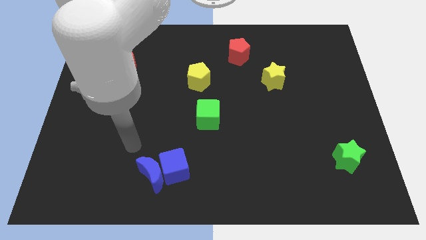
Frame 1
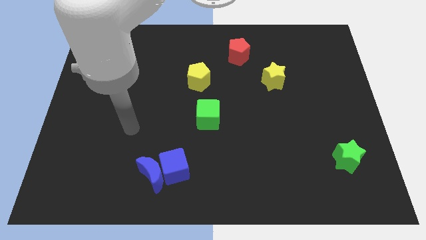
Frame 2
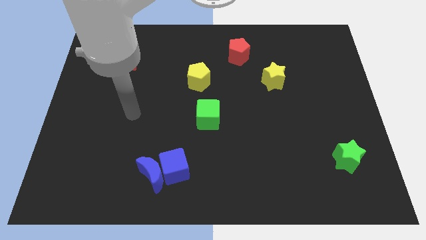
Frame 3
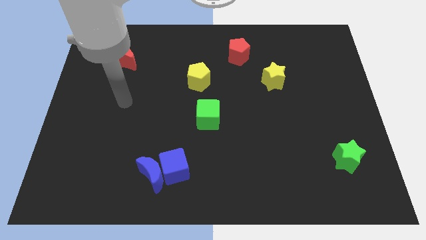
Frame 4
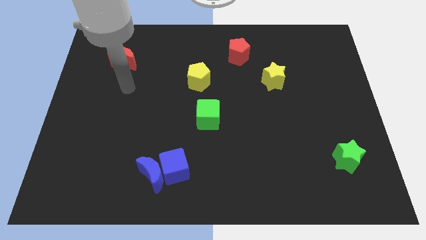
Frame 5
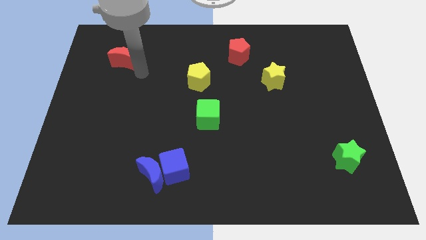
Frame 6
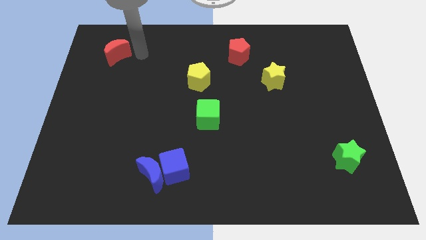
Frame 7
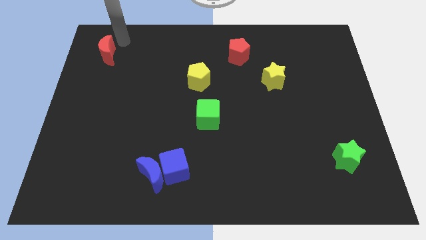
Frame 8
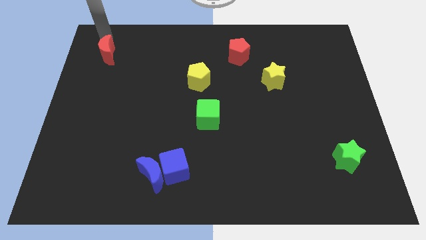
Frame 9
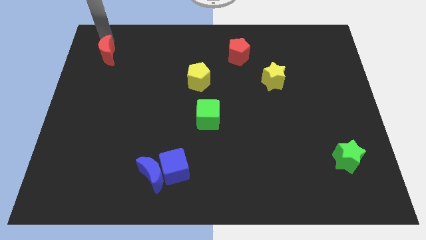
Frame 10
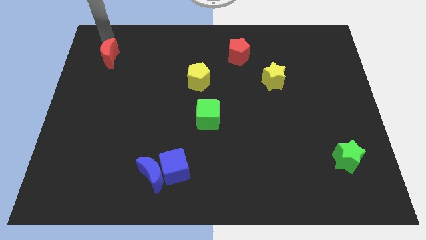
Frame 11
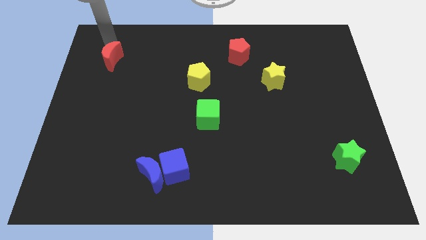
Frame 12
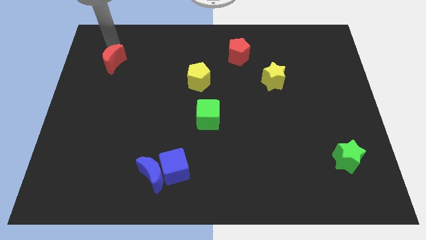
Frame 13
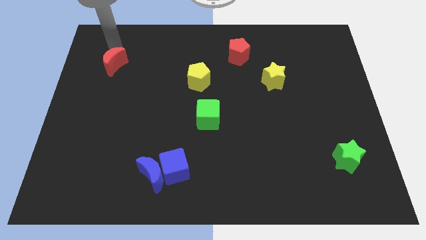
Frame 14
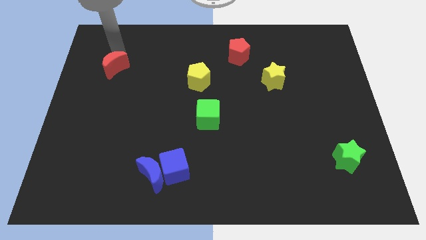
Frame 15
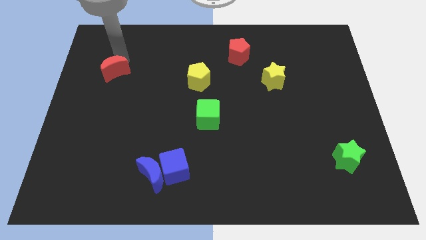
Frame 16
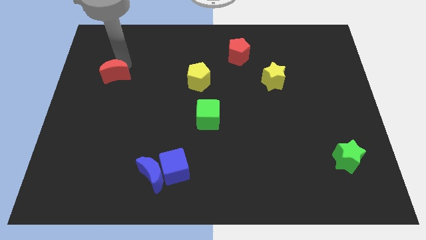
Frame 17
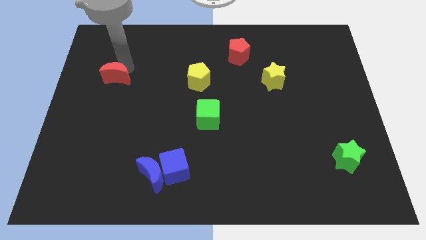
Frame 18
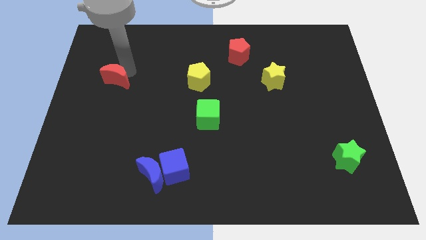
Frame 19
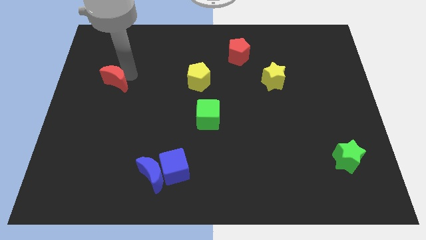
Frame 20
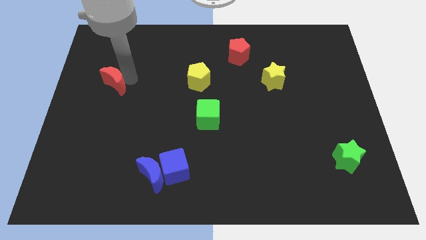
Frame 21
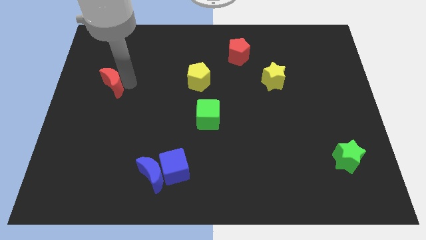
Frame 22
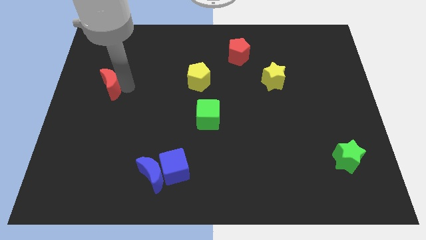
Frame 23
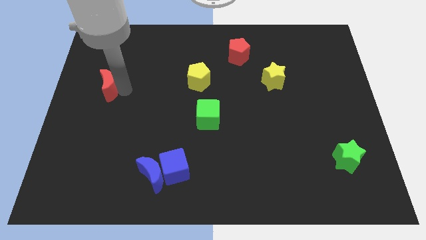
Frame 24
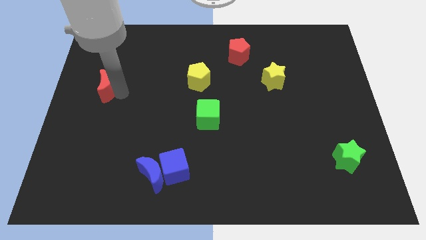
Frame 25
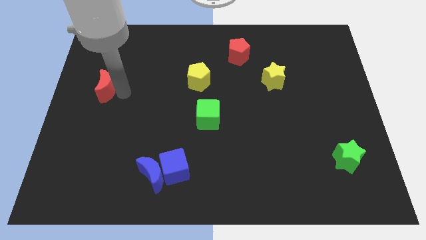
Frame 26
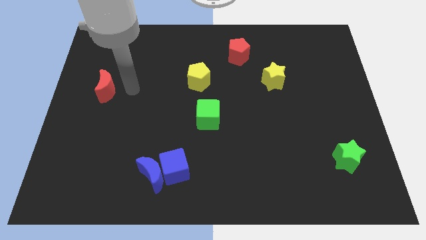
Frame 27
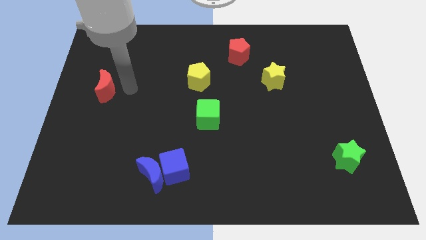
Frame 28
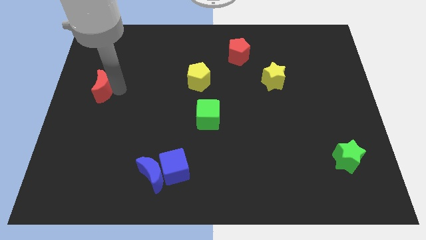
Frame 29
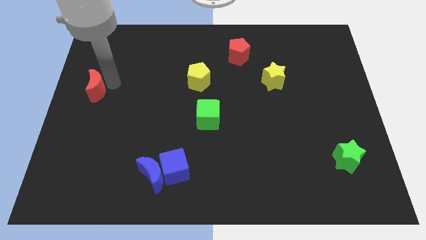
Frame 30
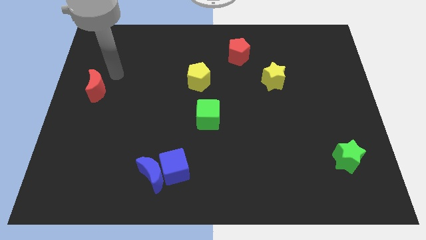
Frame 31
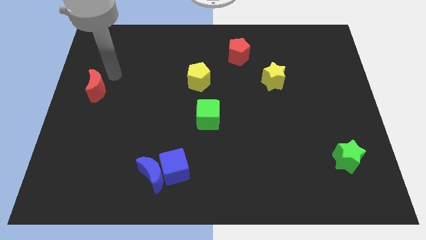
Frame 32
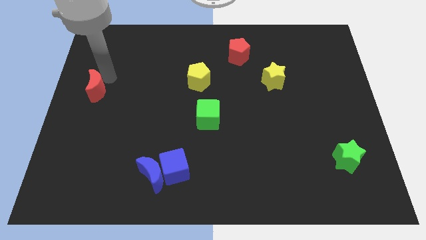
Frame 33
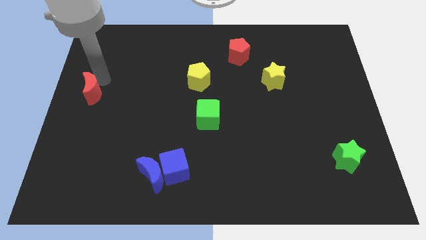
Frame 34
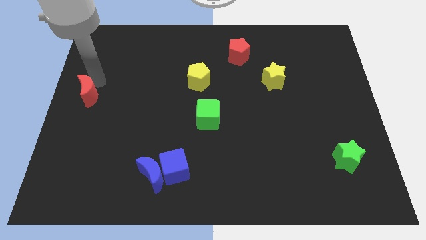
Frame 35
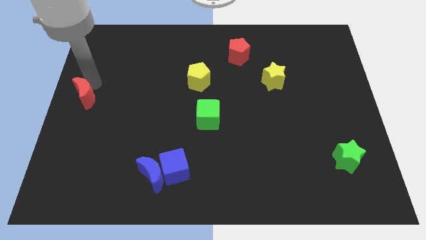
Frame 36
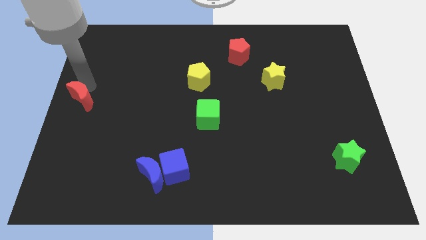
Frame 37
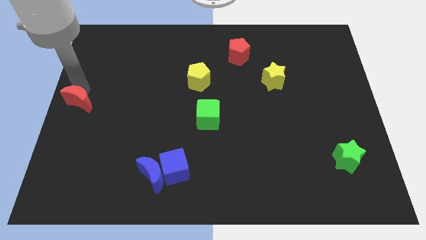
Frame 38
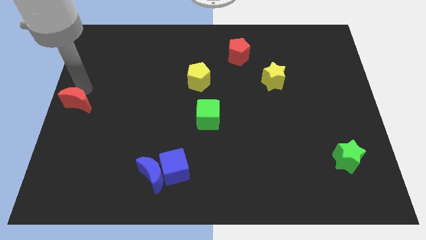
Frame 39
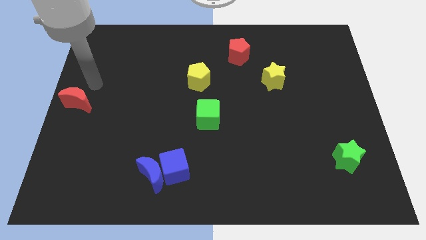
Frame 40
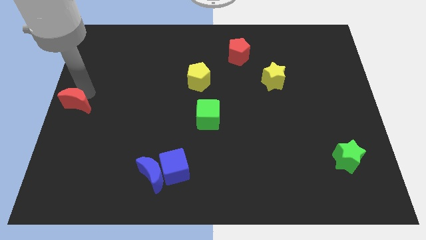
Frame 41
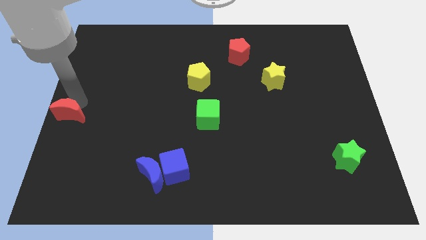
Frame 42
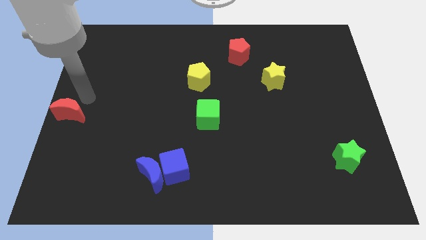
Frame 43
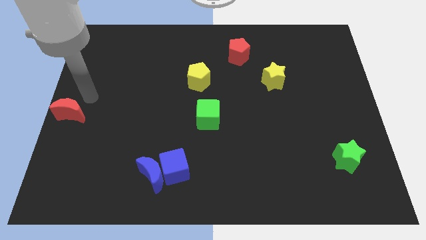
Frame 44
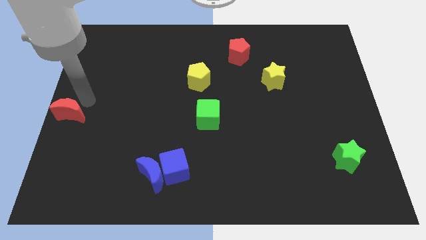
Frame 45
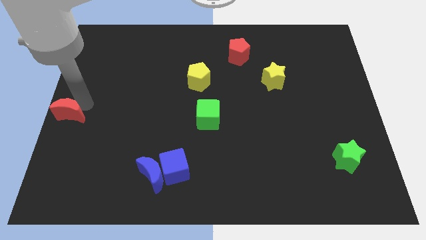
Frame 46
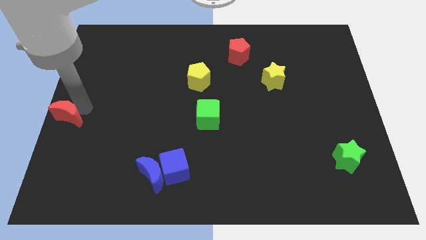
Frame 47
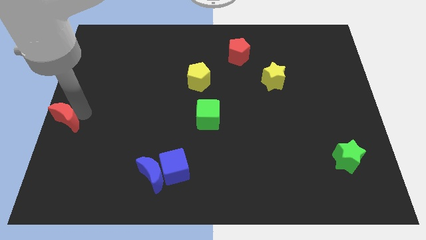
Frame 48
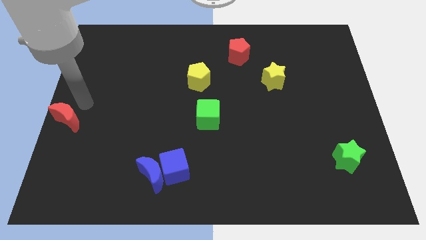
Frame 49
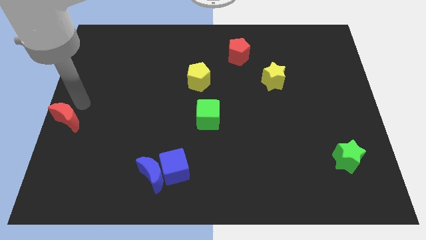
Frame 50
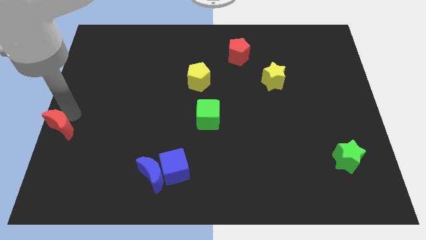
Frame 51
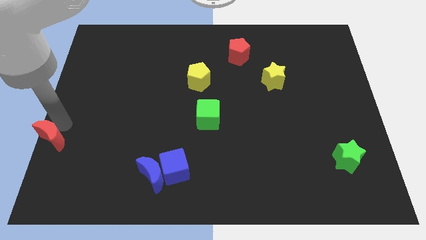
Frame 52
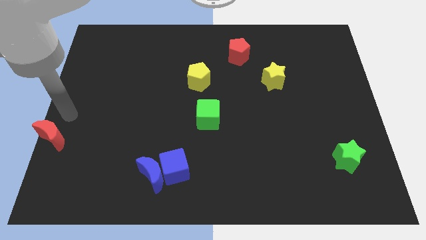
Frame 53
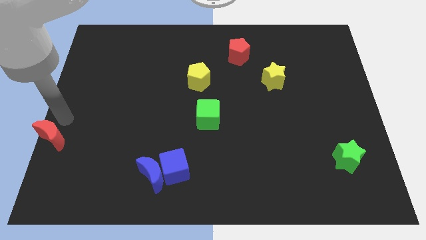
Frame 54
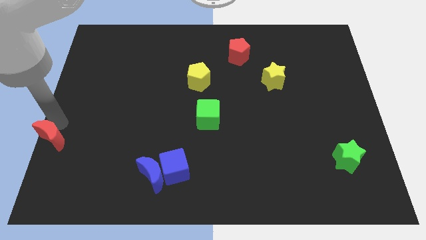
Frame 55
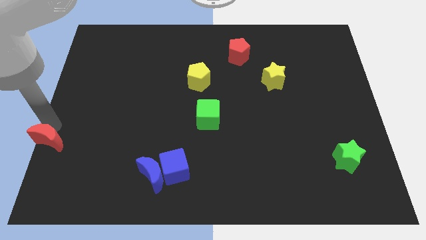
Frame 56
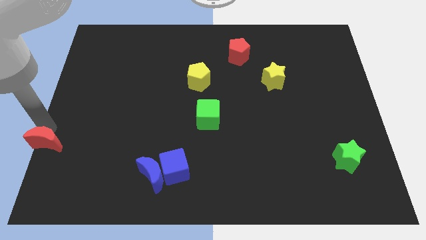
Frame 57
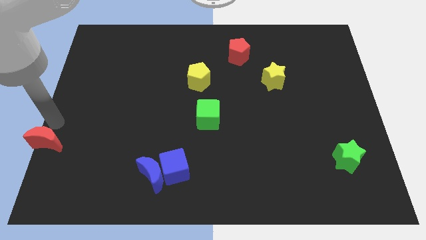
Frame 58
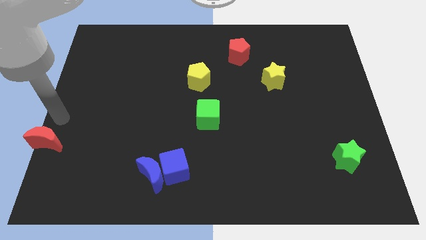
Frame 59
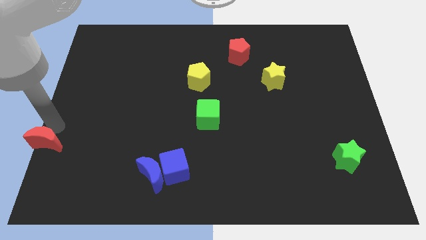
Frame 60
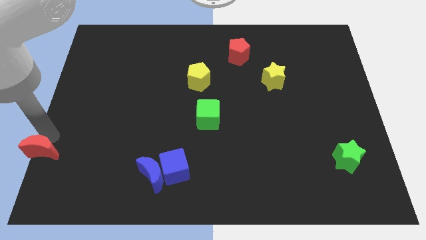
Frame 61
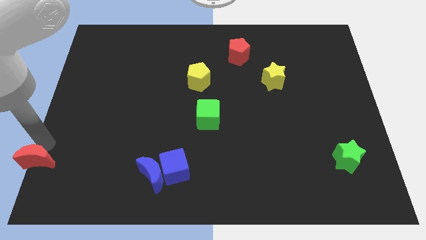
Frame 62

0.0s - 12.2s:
slide the red moon to the bottom left of the board

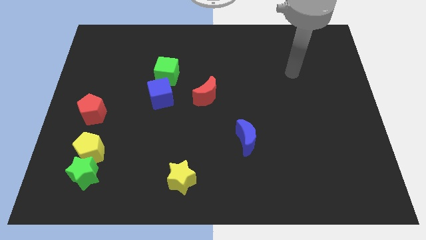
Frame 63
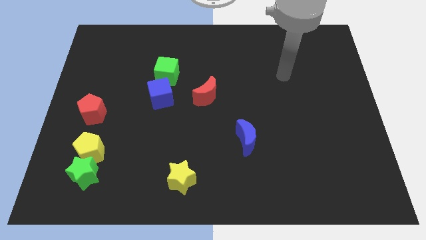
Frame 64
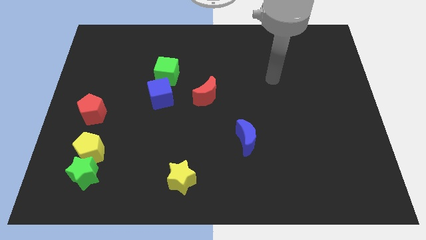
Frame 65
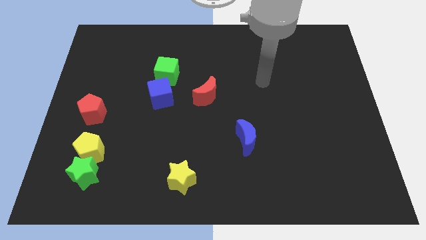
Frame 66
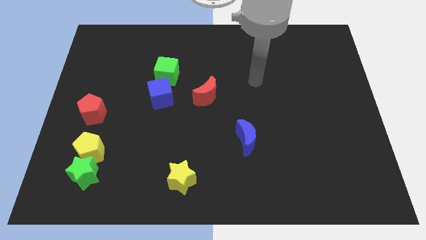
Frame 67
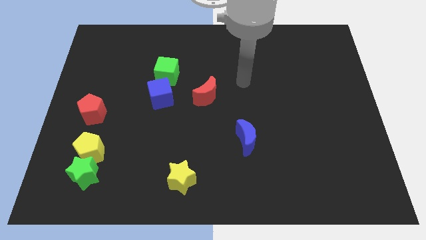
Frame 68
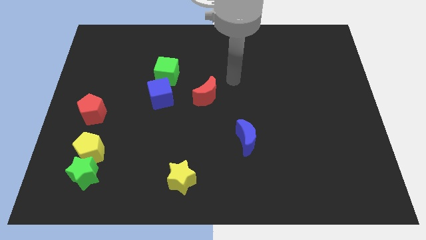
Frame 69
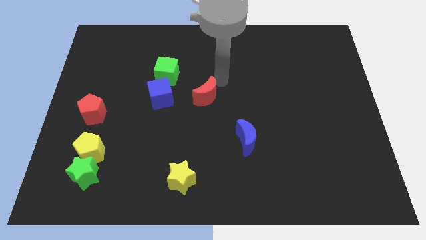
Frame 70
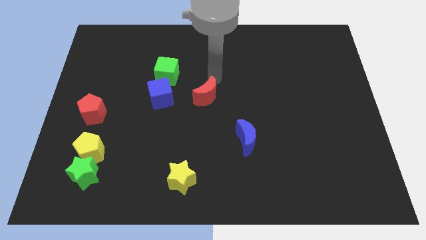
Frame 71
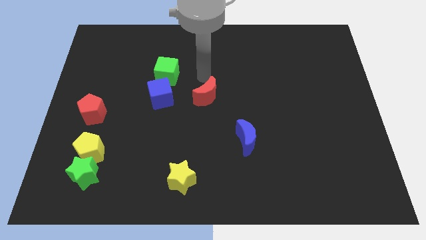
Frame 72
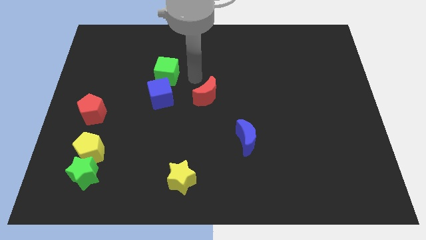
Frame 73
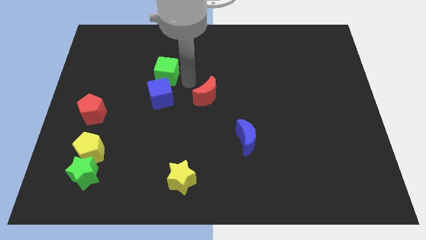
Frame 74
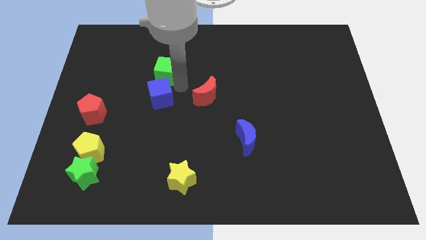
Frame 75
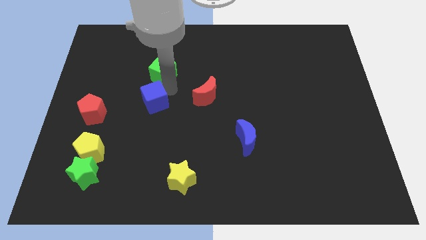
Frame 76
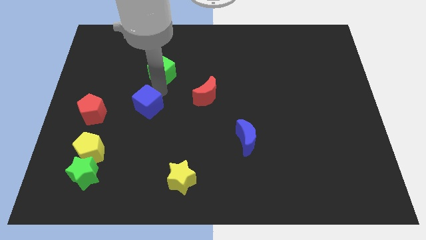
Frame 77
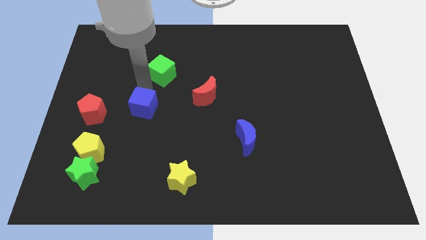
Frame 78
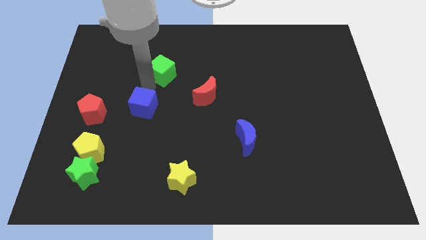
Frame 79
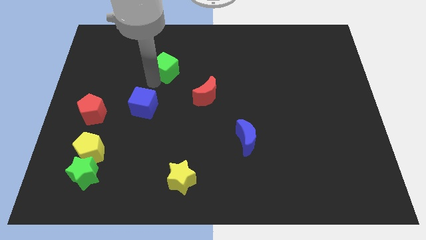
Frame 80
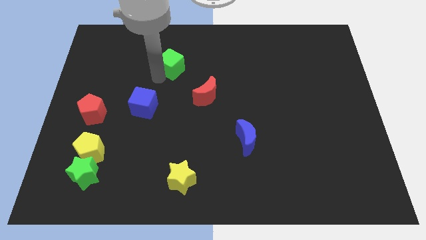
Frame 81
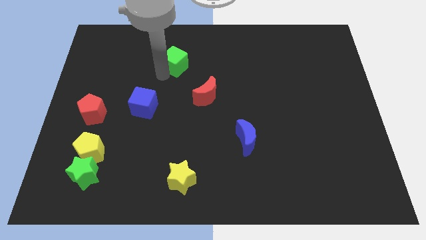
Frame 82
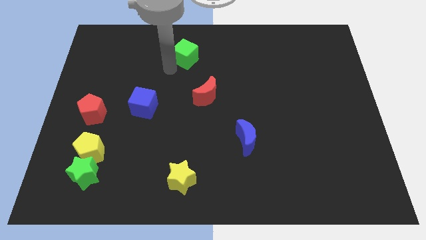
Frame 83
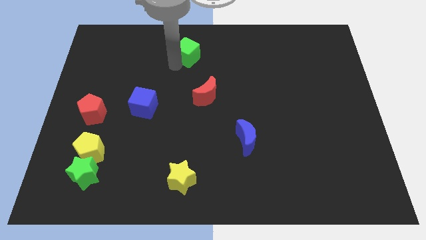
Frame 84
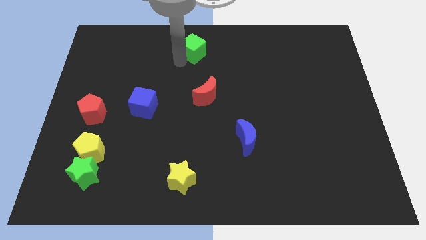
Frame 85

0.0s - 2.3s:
slide the green cube to the top
